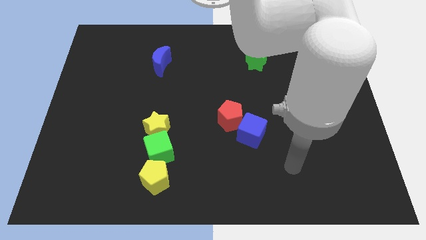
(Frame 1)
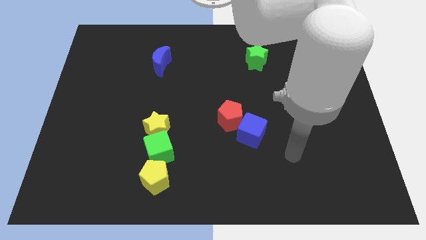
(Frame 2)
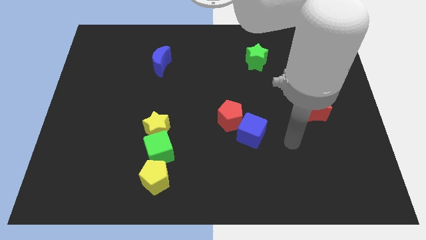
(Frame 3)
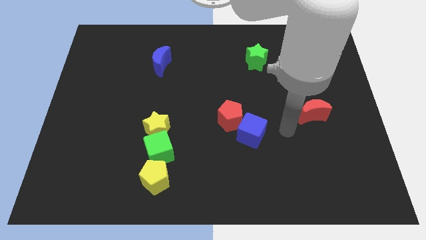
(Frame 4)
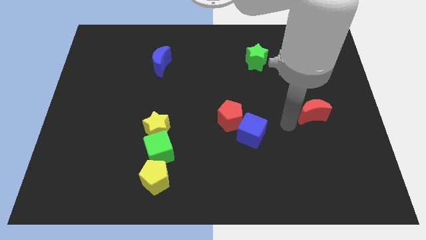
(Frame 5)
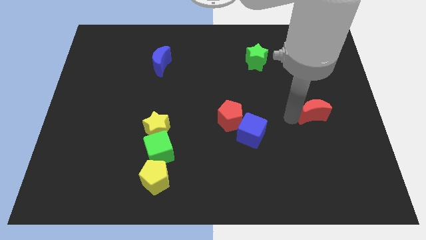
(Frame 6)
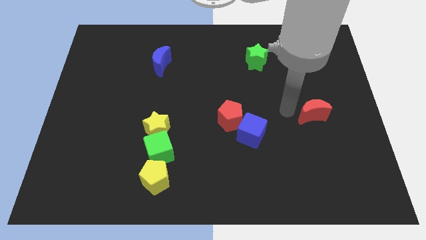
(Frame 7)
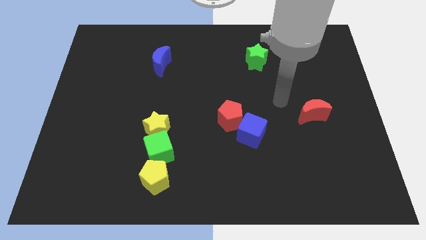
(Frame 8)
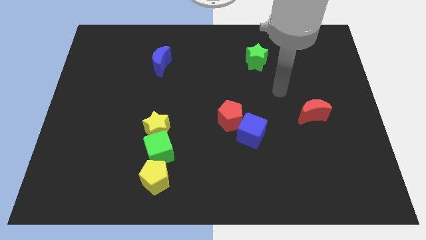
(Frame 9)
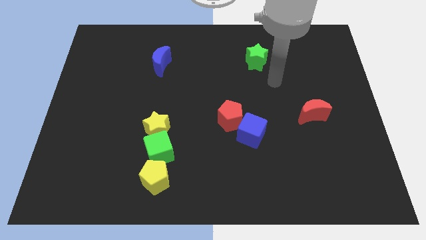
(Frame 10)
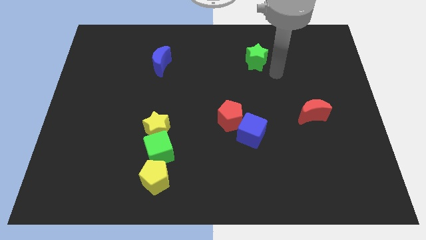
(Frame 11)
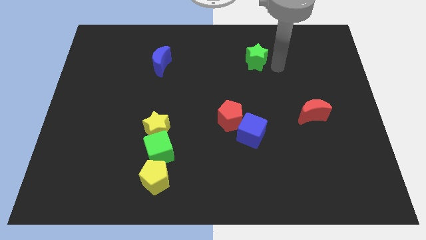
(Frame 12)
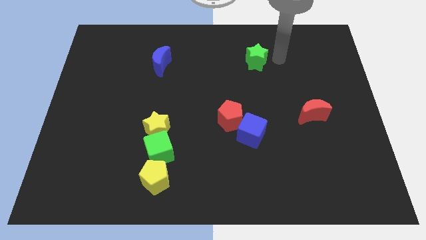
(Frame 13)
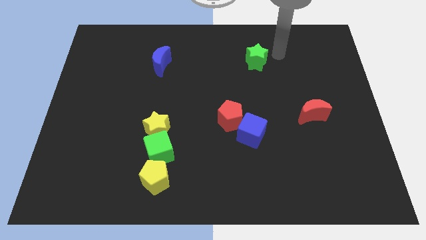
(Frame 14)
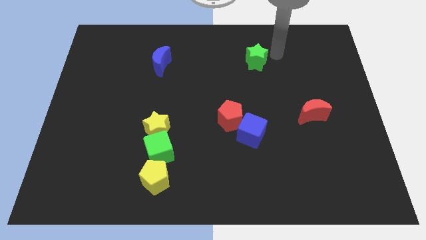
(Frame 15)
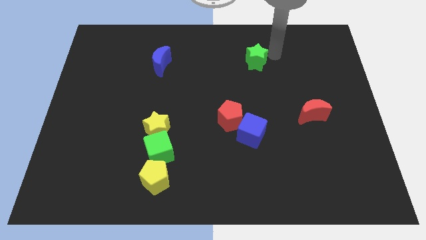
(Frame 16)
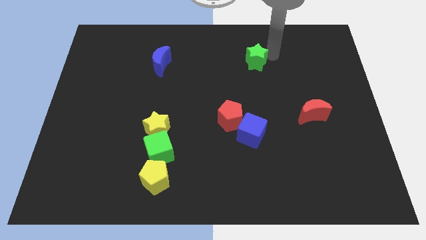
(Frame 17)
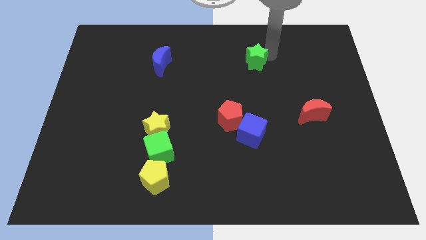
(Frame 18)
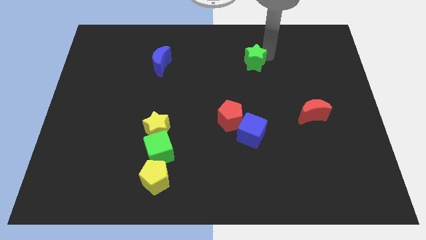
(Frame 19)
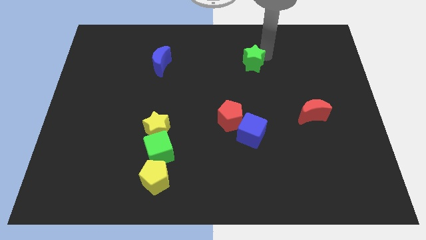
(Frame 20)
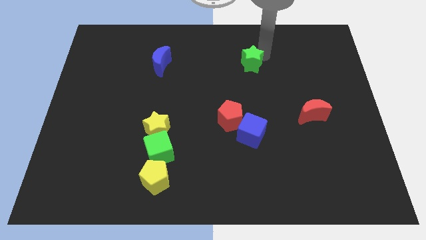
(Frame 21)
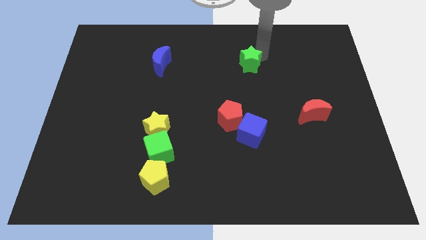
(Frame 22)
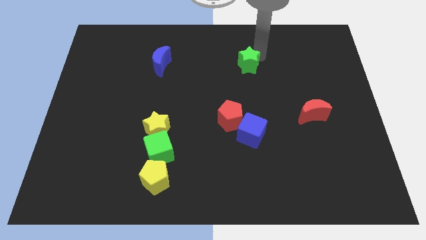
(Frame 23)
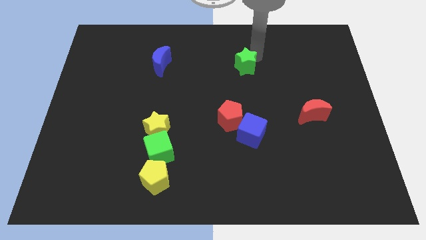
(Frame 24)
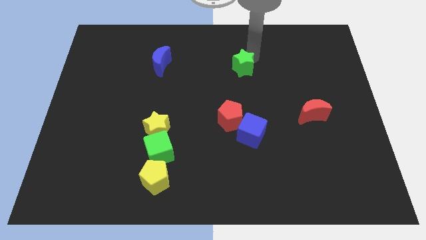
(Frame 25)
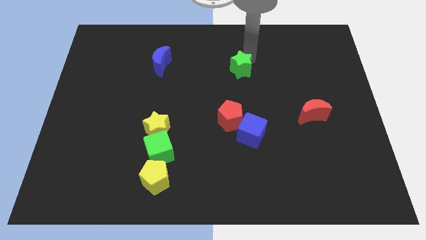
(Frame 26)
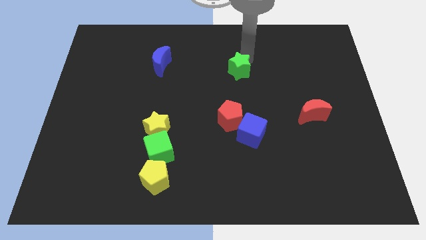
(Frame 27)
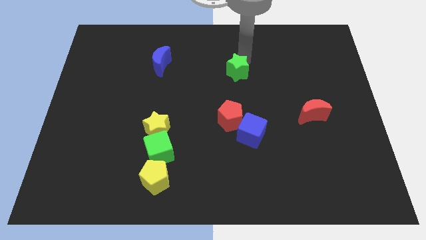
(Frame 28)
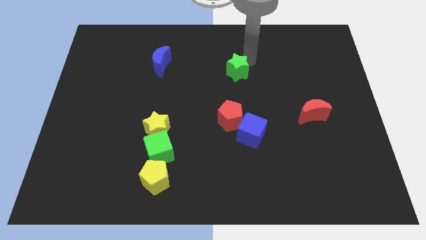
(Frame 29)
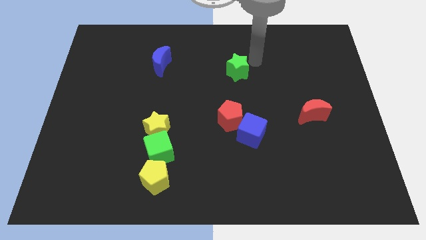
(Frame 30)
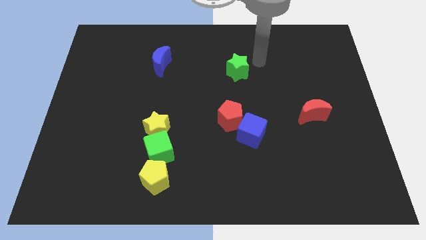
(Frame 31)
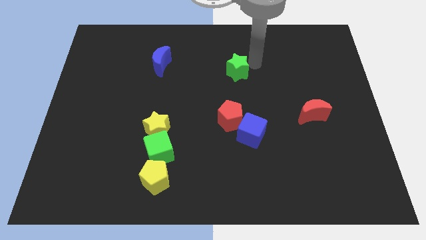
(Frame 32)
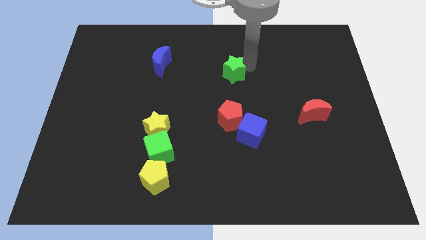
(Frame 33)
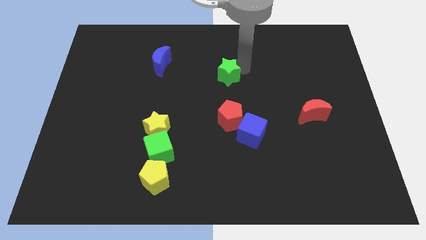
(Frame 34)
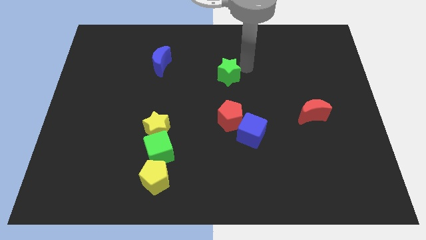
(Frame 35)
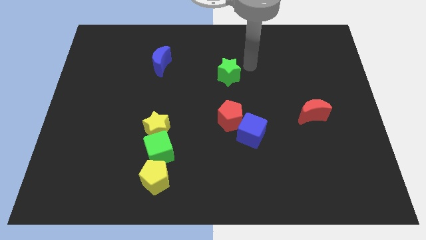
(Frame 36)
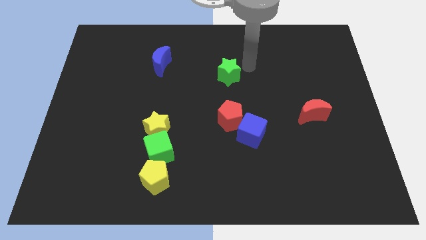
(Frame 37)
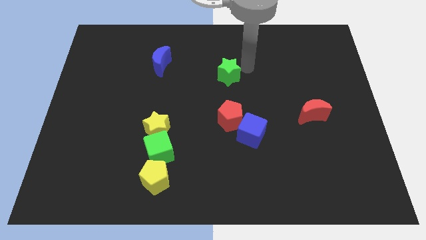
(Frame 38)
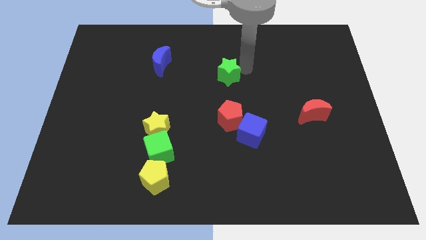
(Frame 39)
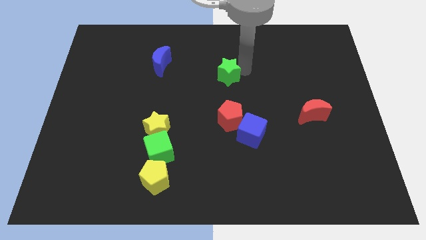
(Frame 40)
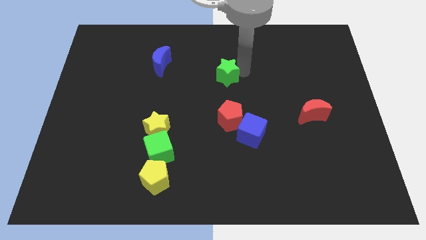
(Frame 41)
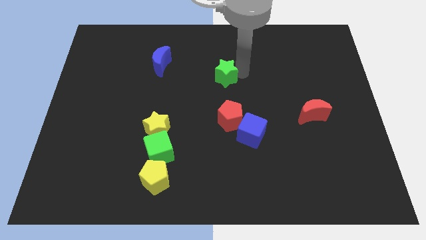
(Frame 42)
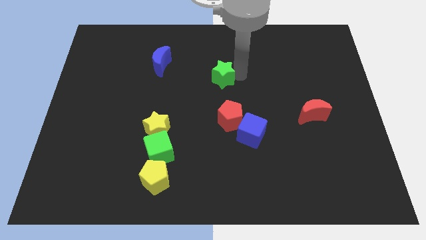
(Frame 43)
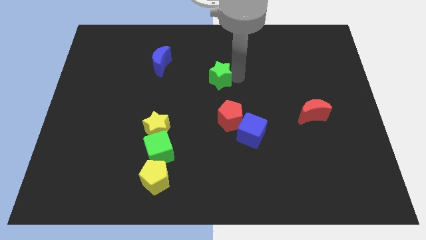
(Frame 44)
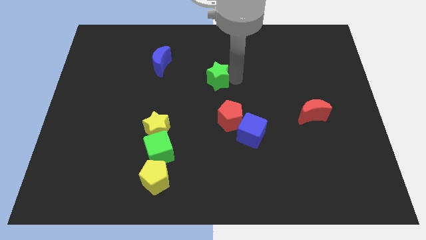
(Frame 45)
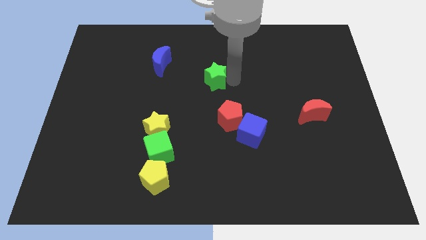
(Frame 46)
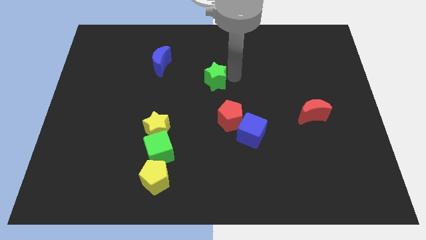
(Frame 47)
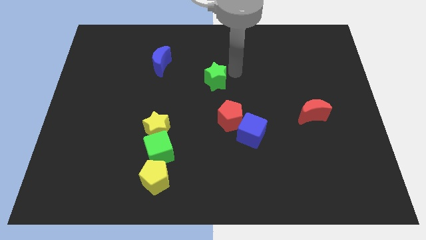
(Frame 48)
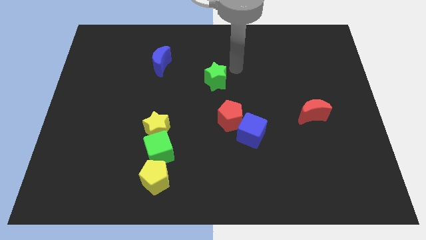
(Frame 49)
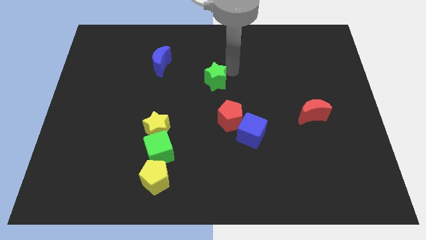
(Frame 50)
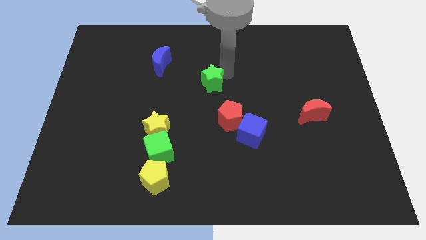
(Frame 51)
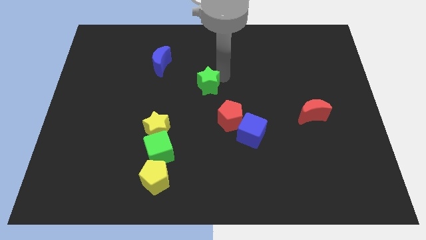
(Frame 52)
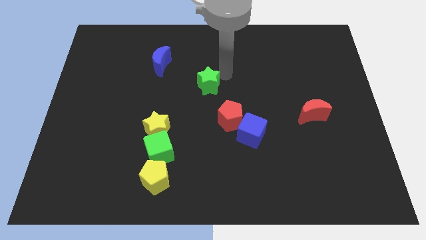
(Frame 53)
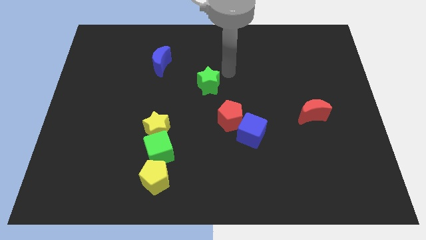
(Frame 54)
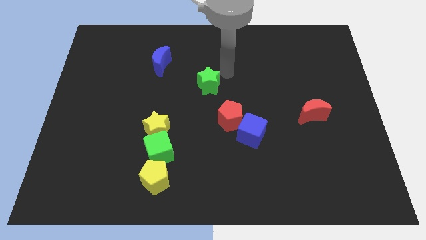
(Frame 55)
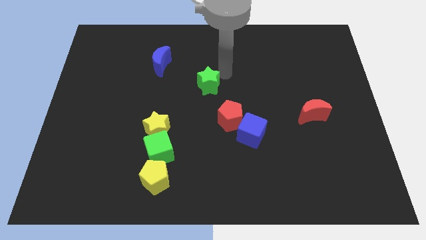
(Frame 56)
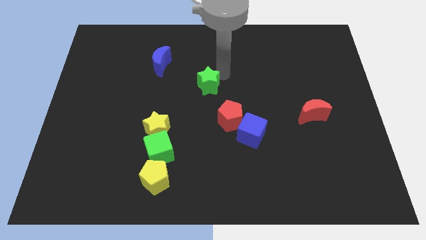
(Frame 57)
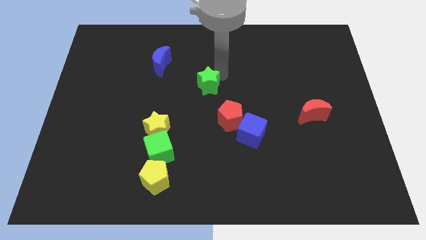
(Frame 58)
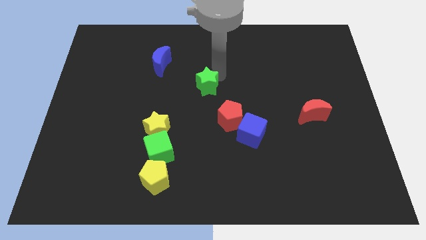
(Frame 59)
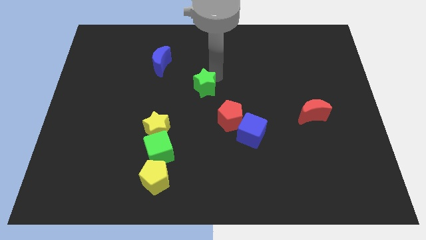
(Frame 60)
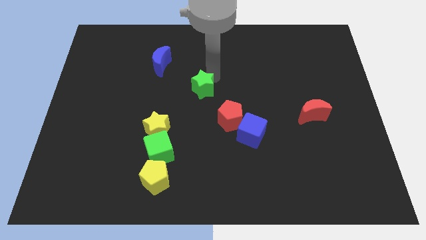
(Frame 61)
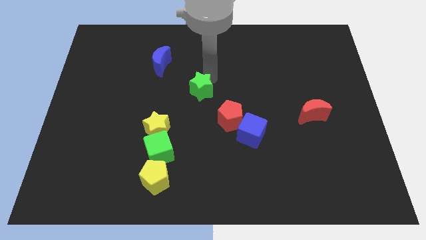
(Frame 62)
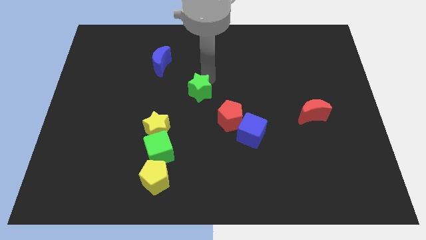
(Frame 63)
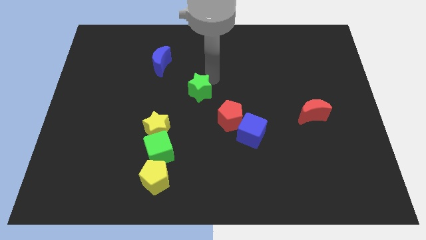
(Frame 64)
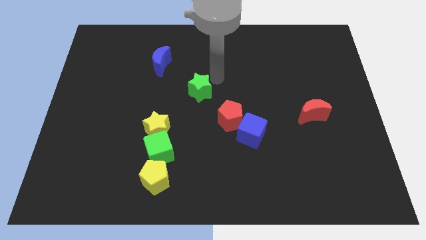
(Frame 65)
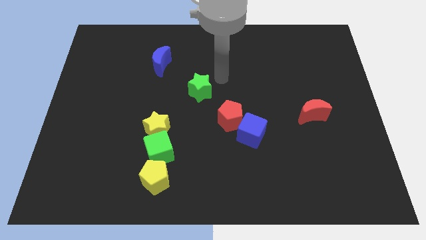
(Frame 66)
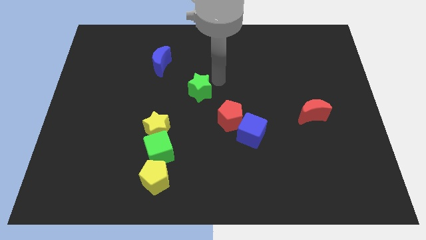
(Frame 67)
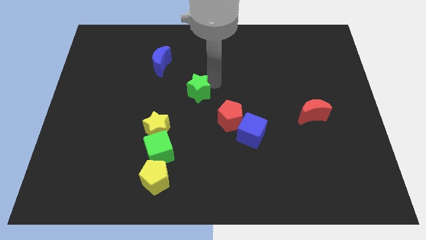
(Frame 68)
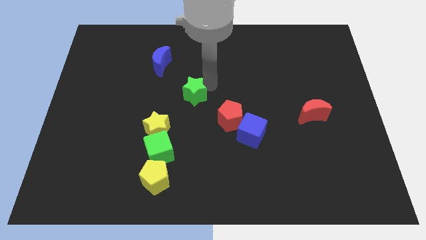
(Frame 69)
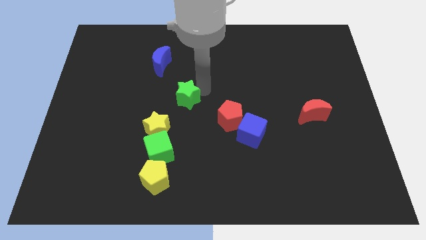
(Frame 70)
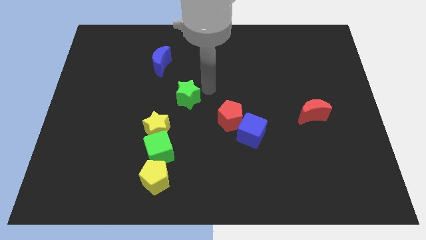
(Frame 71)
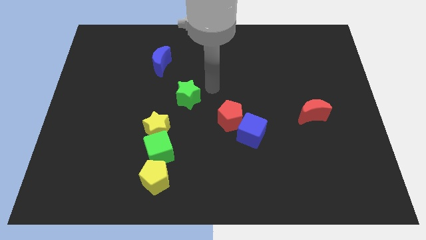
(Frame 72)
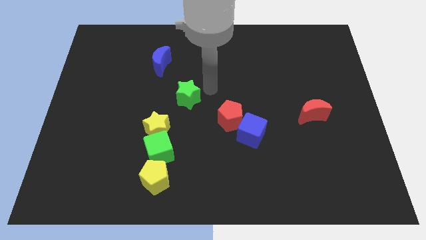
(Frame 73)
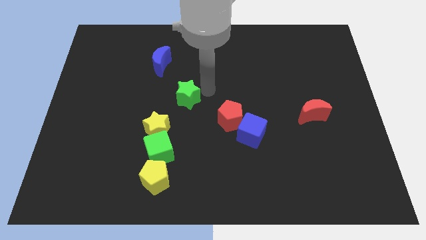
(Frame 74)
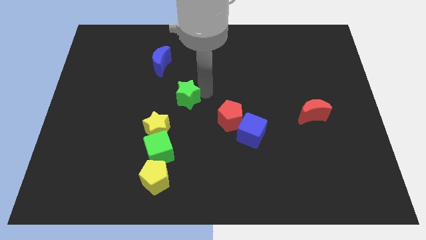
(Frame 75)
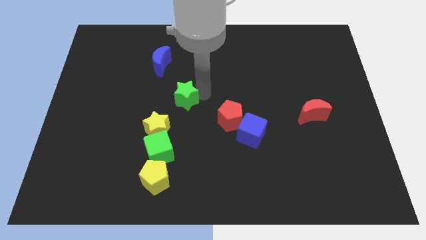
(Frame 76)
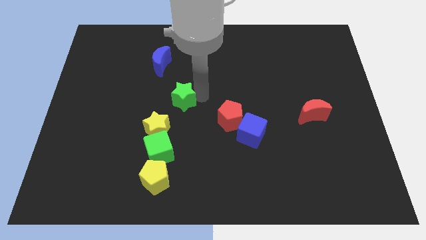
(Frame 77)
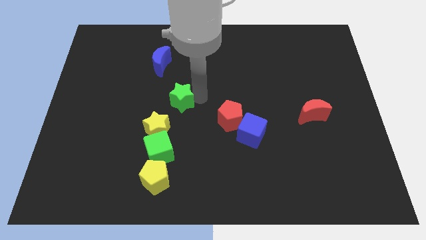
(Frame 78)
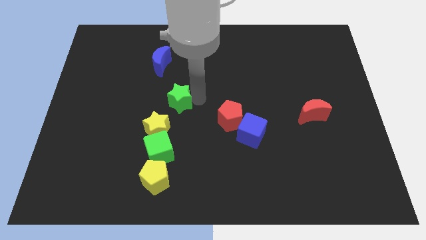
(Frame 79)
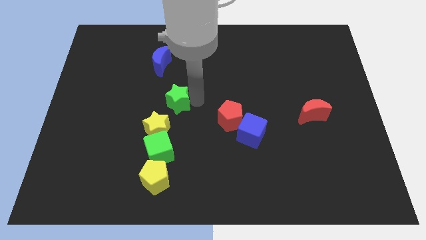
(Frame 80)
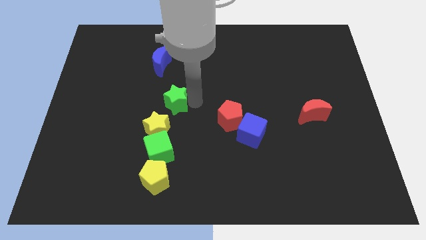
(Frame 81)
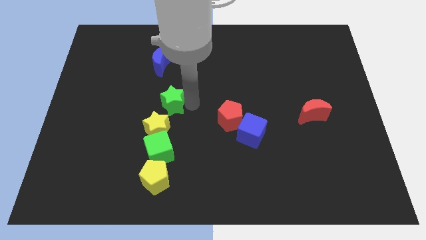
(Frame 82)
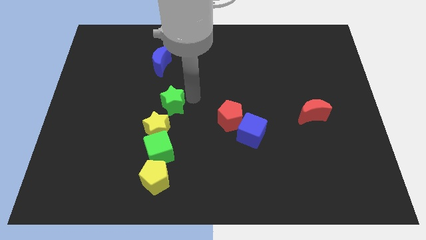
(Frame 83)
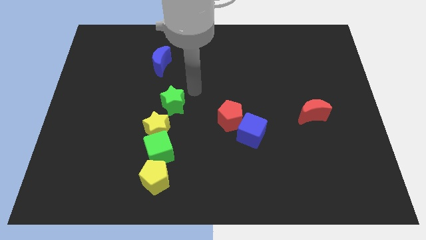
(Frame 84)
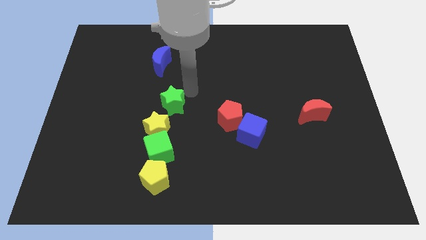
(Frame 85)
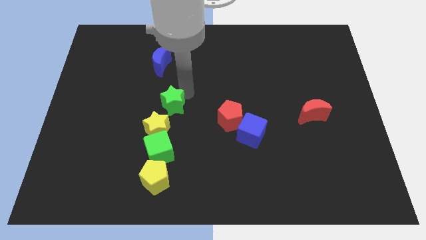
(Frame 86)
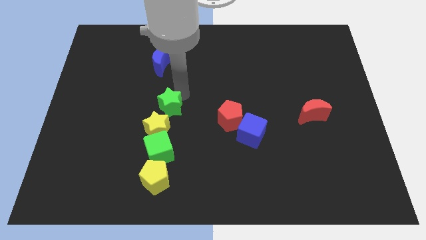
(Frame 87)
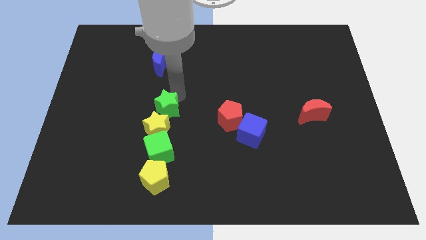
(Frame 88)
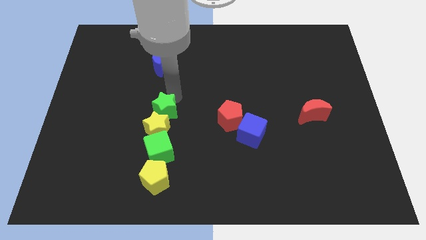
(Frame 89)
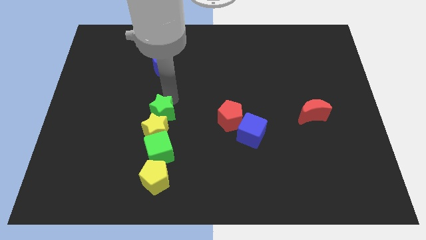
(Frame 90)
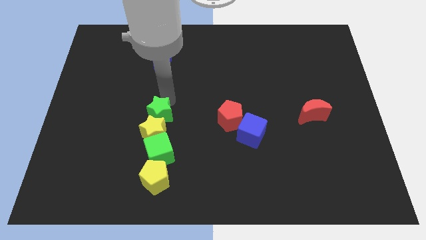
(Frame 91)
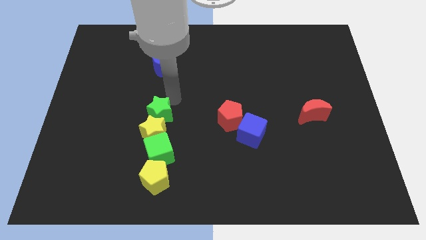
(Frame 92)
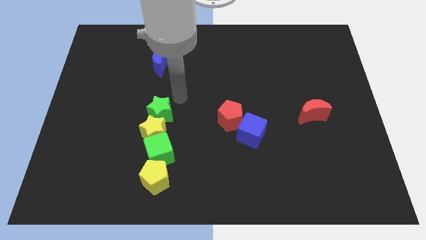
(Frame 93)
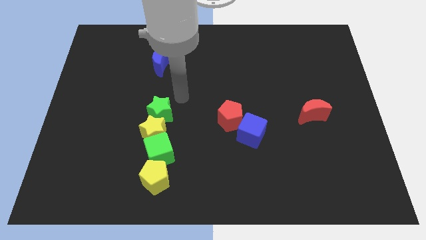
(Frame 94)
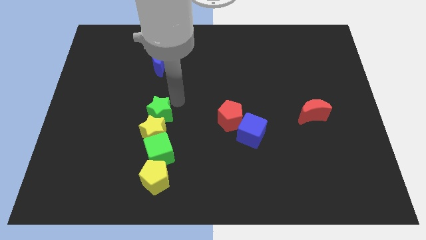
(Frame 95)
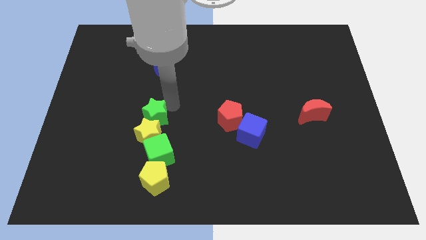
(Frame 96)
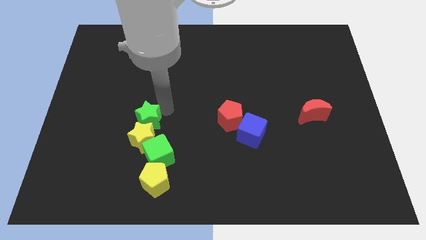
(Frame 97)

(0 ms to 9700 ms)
push the green star to the top left of the green cube
